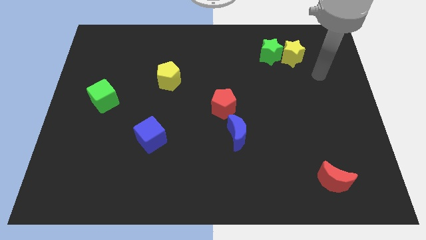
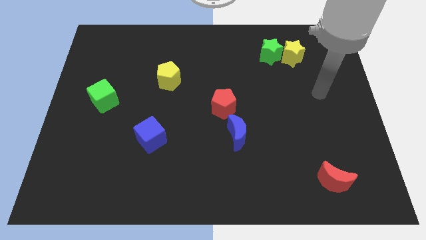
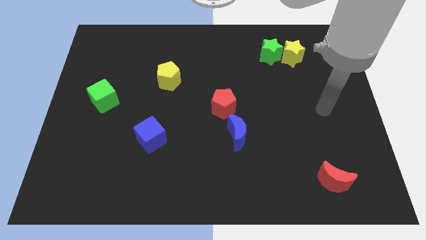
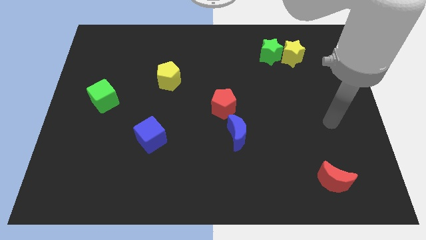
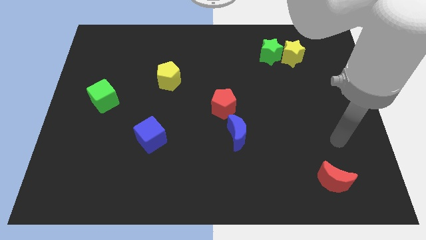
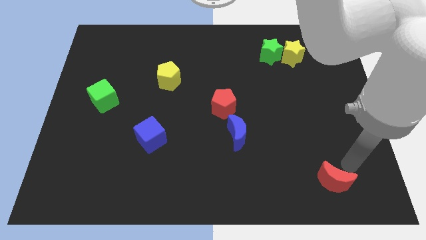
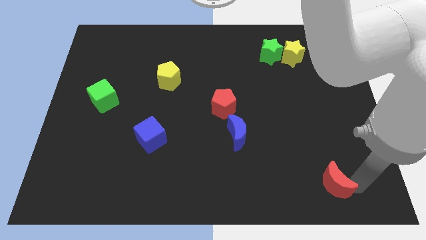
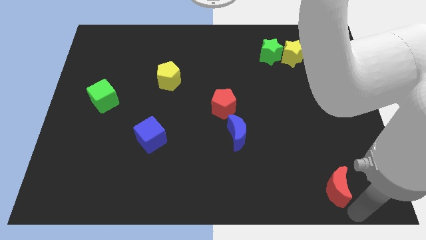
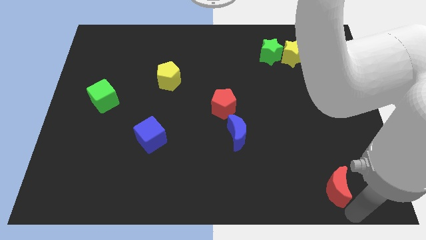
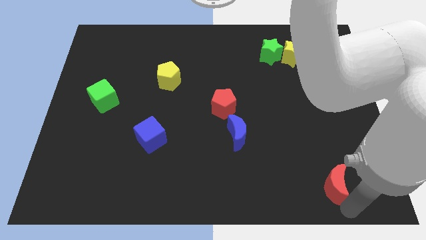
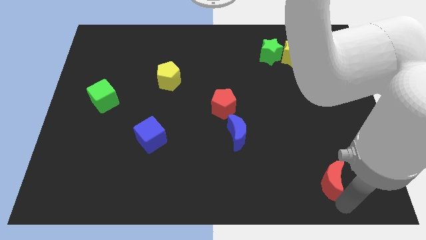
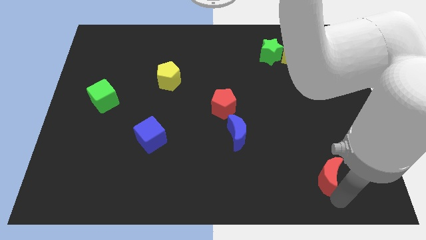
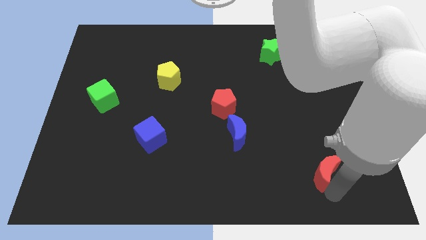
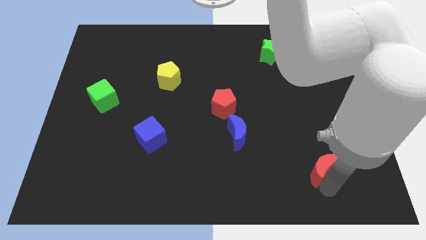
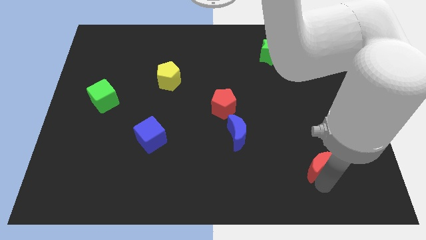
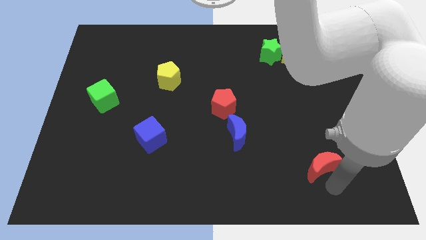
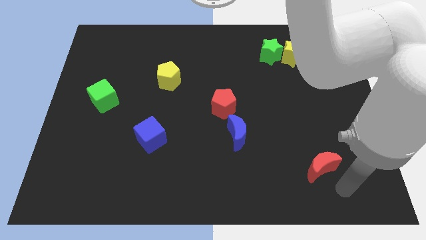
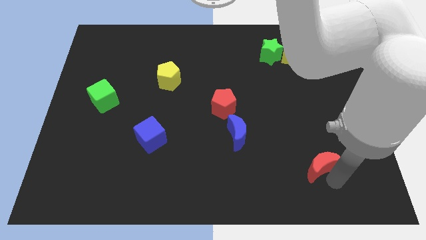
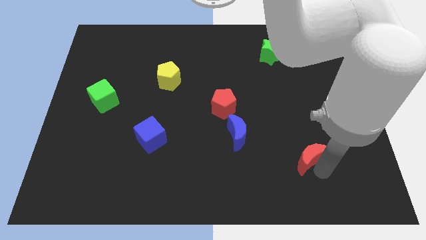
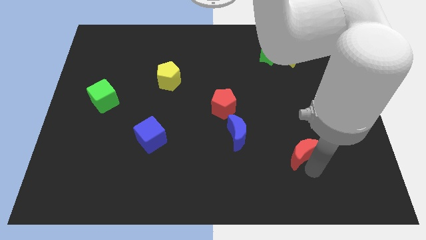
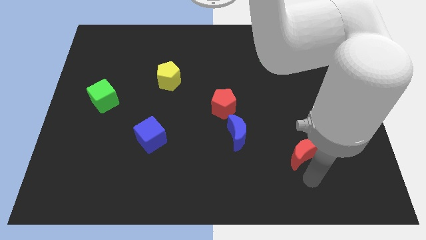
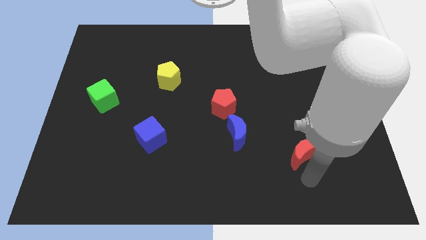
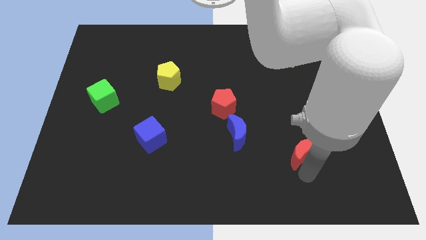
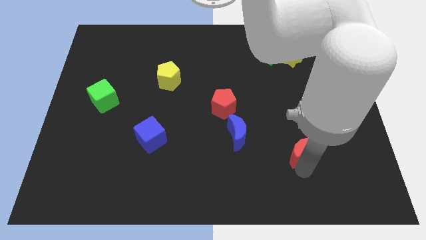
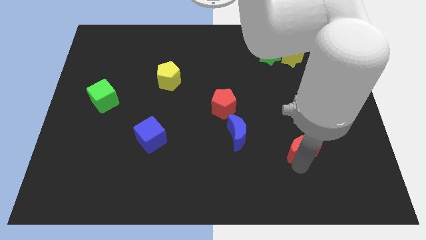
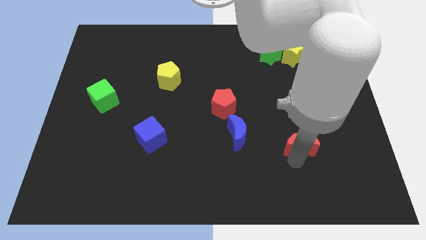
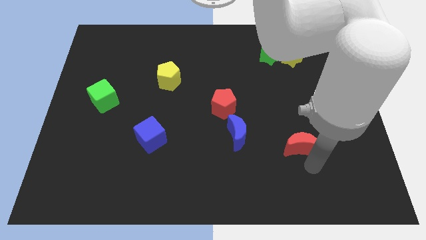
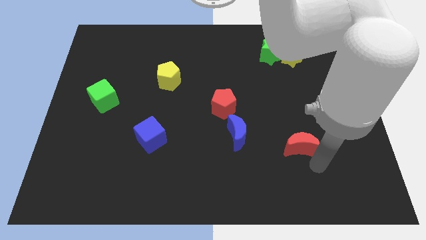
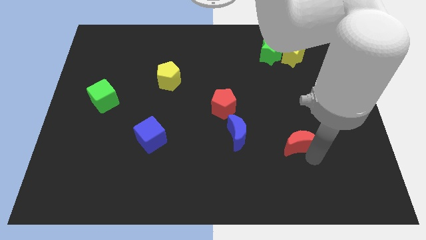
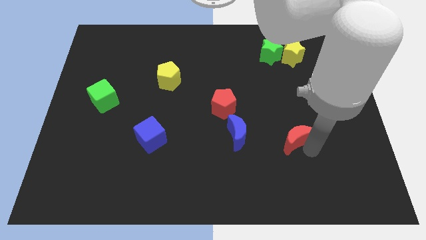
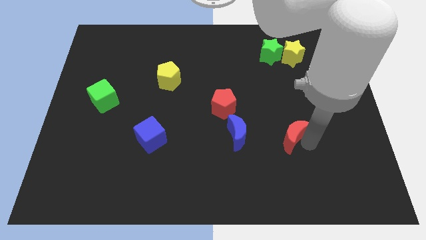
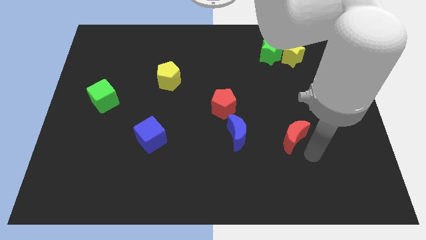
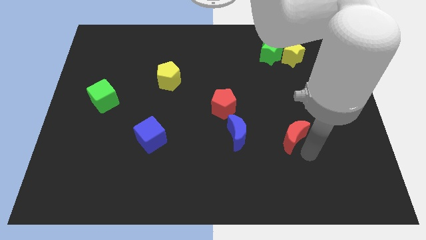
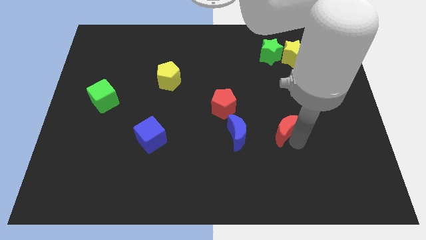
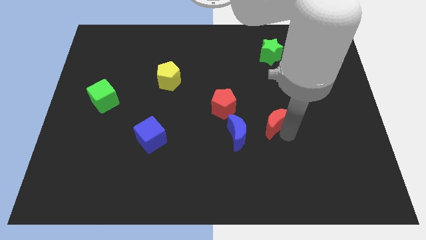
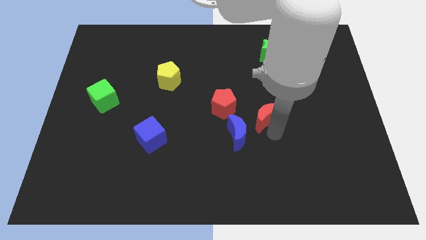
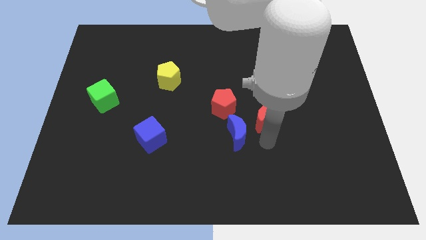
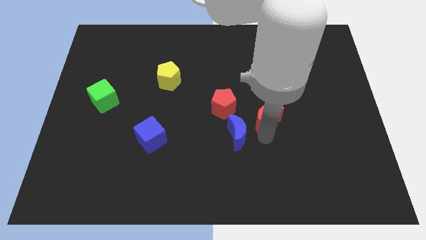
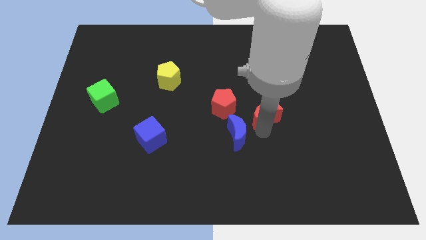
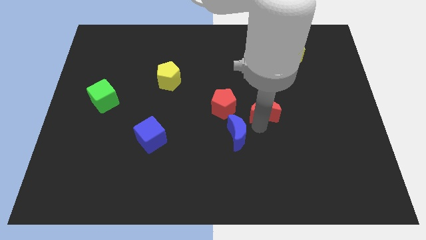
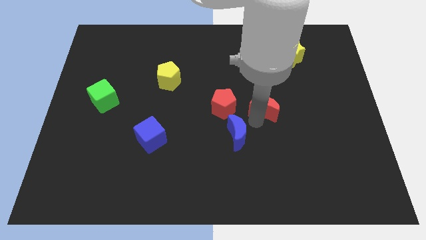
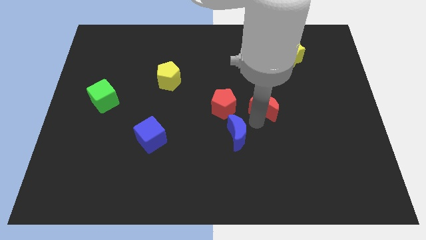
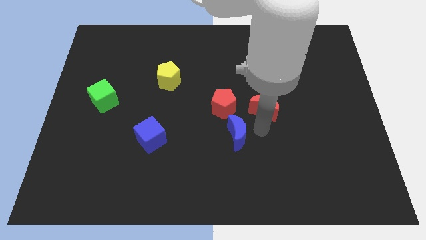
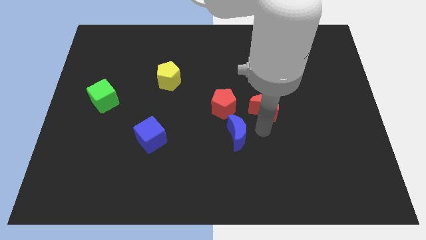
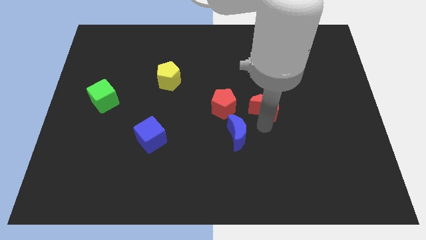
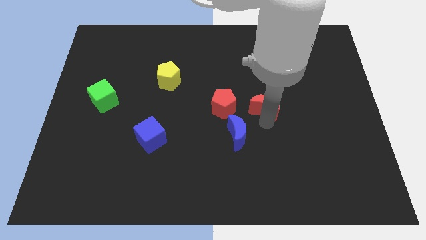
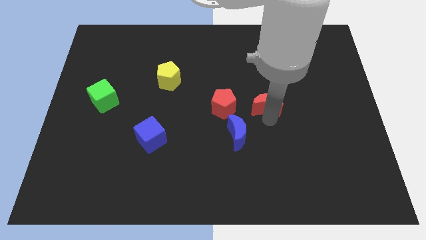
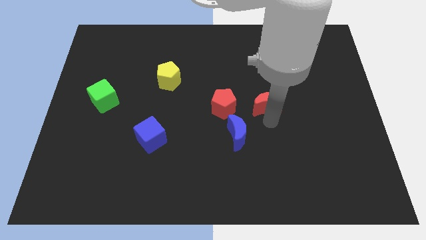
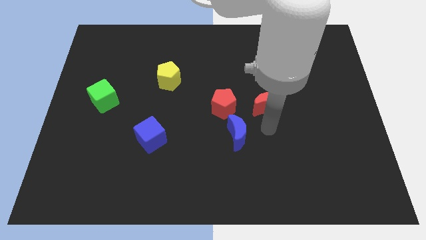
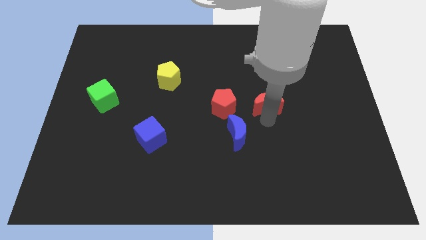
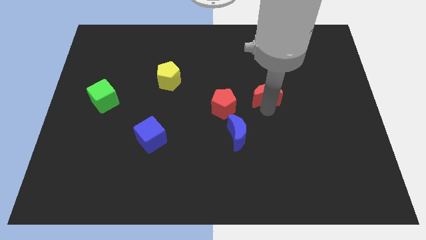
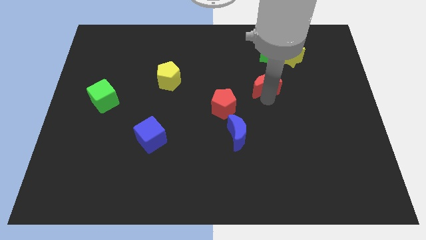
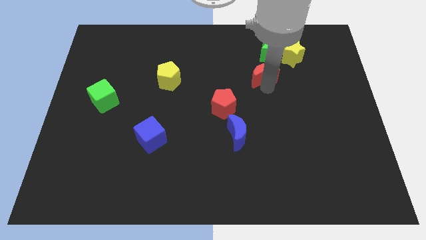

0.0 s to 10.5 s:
slide the red moon diagonally down and to the left of the green star

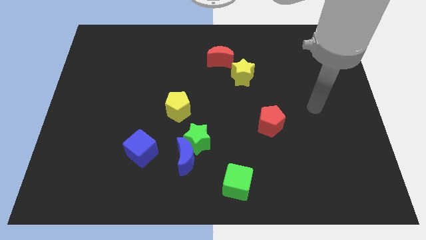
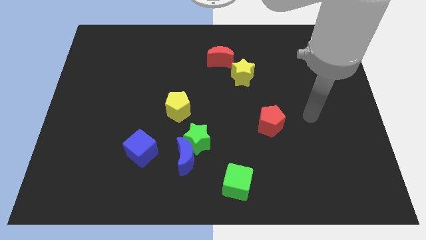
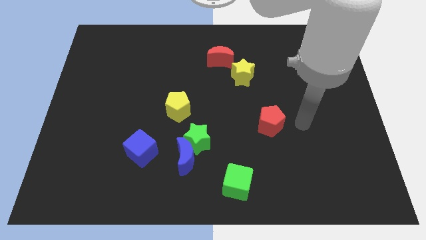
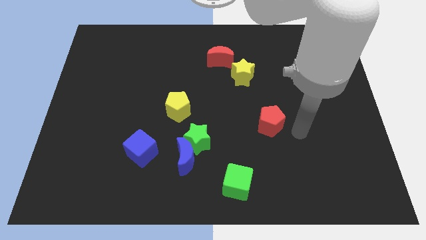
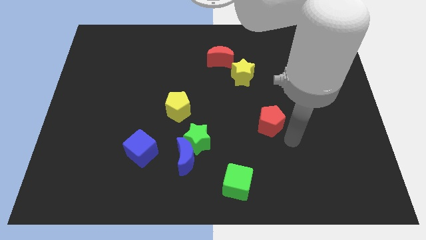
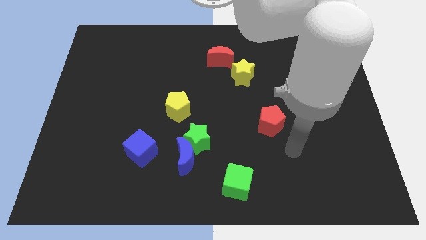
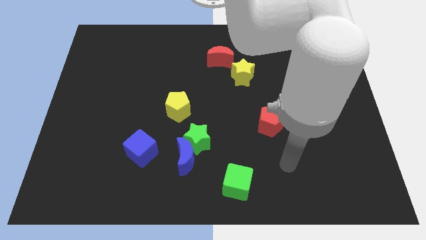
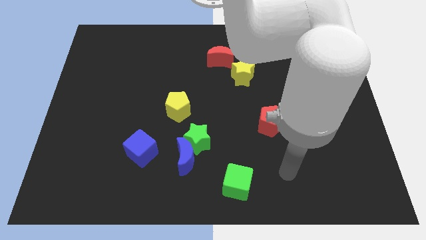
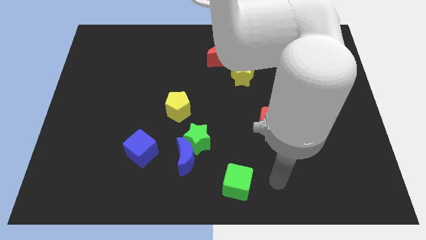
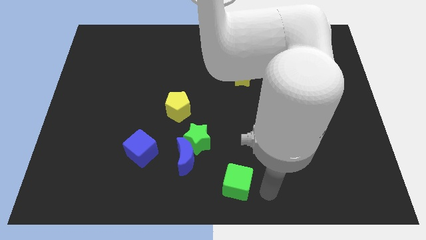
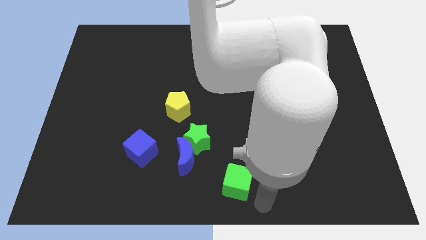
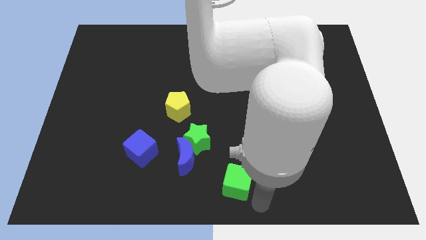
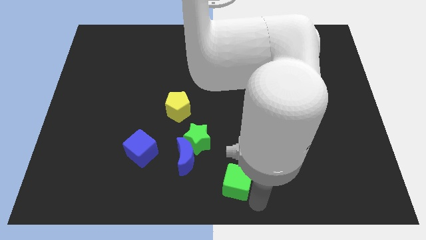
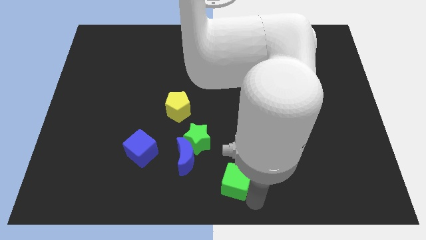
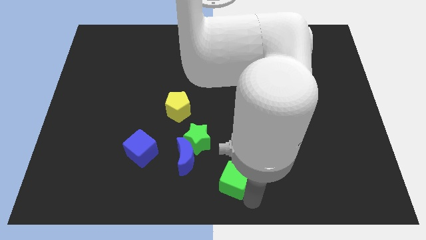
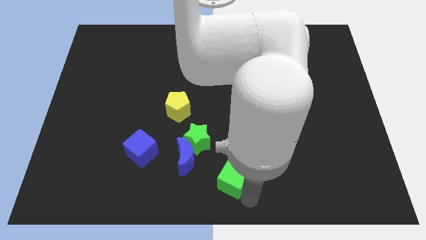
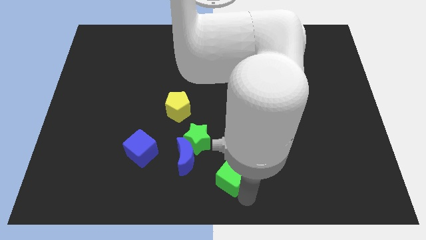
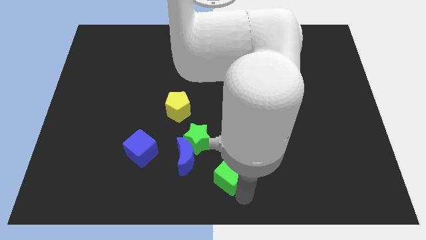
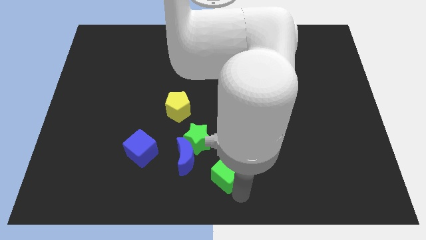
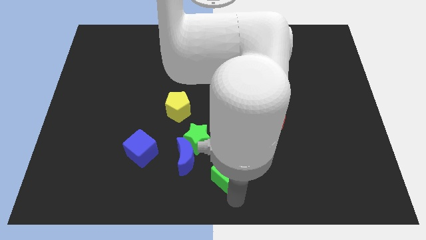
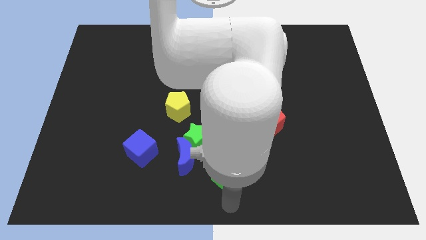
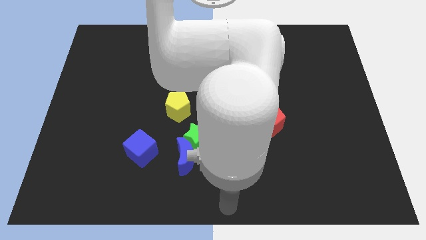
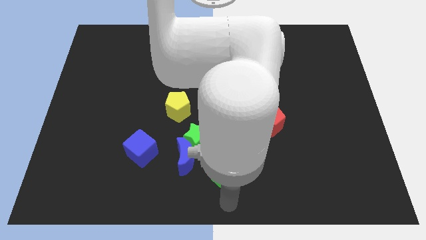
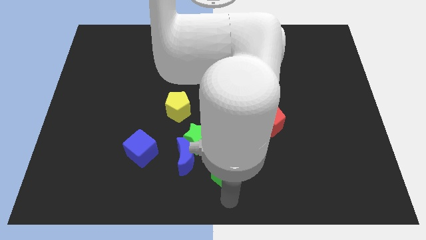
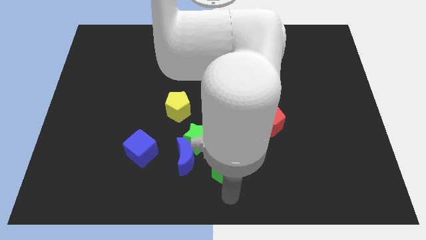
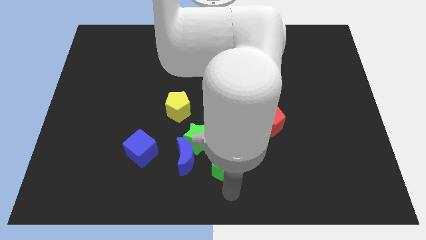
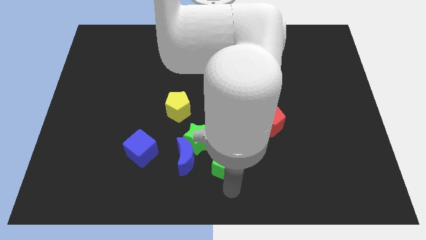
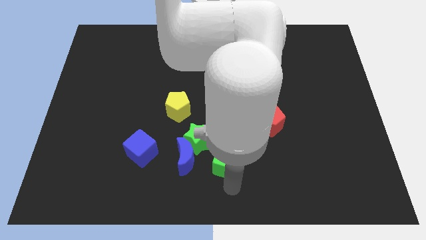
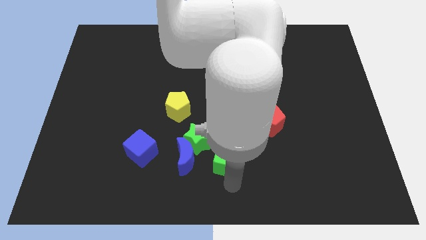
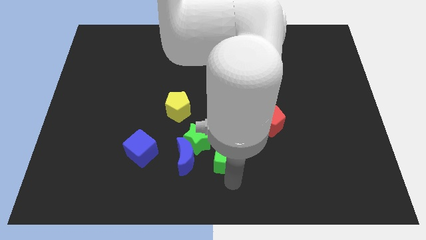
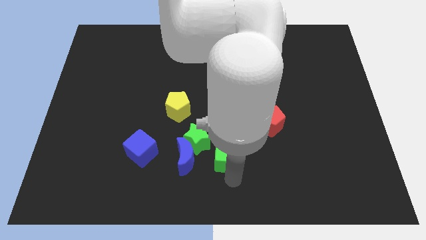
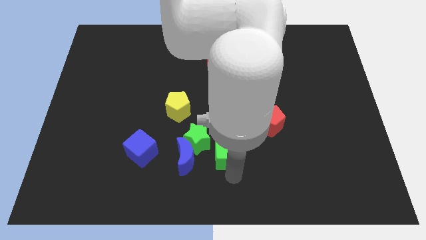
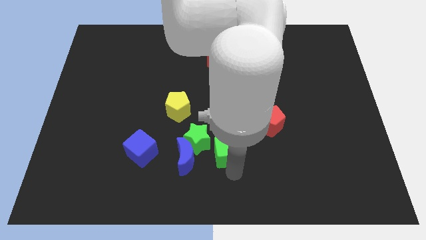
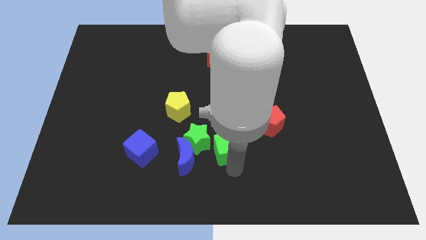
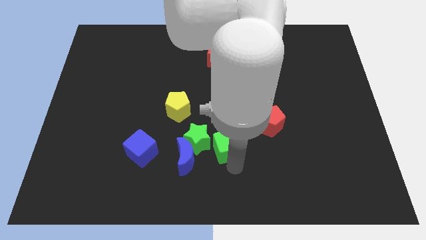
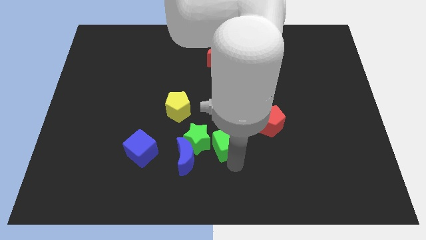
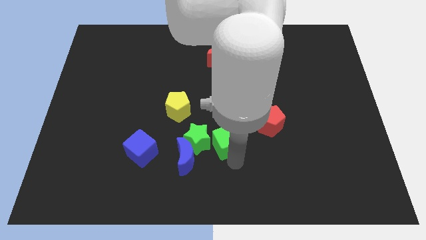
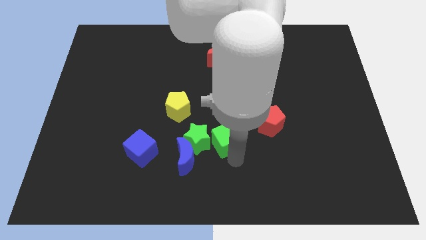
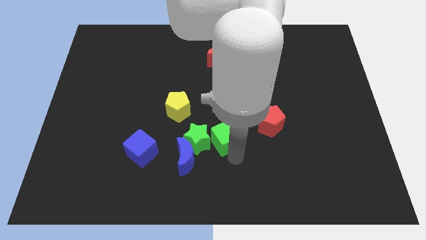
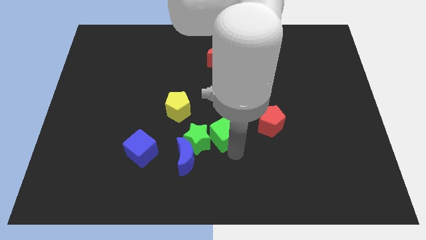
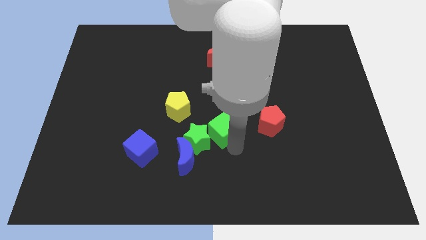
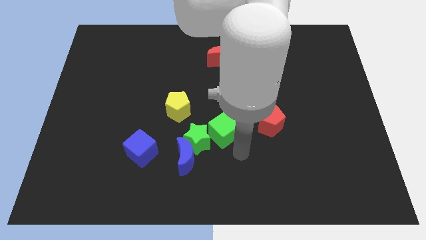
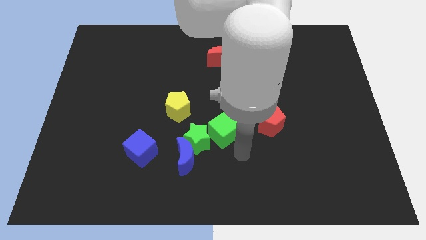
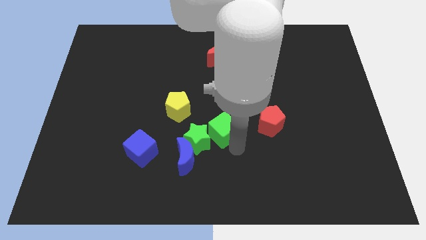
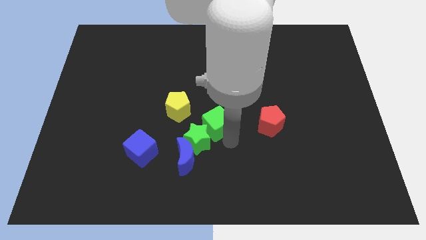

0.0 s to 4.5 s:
put the green cube to the top side of the green star
